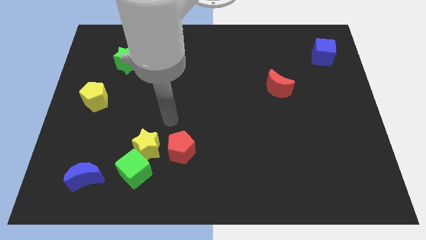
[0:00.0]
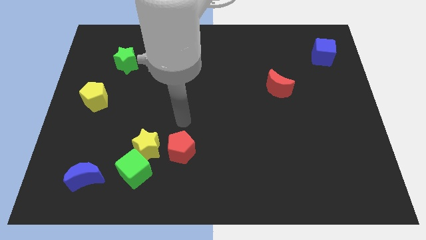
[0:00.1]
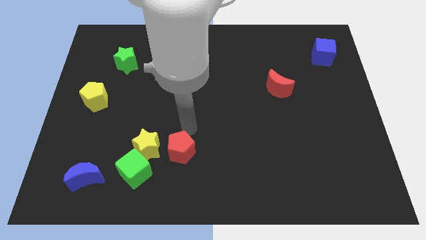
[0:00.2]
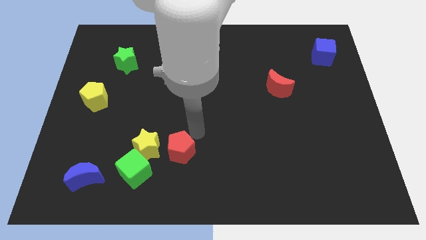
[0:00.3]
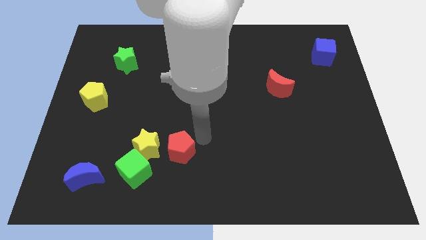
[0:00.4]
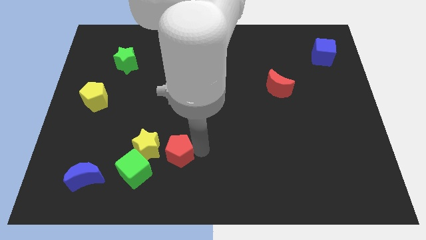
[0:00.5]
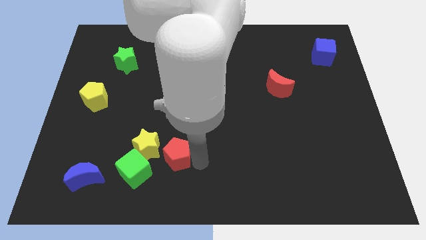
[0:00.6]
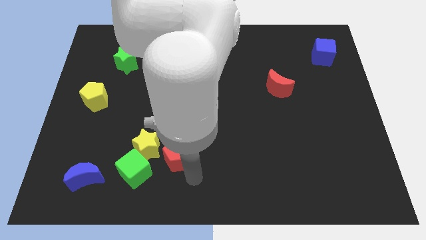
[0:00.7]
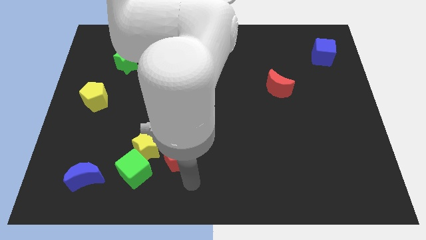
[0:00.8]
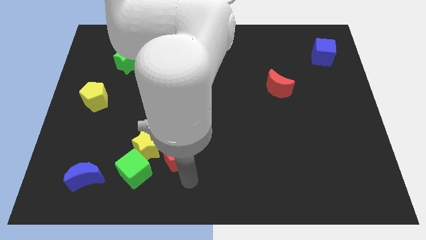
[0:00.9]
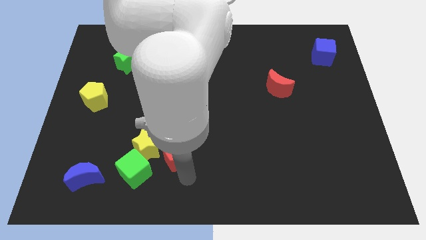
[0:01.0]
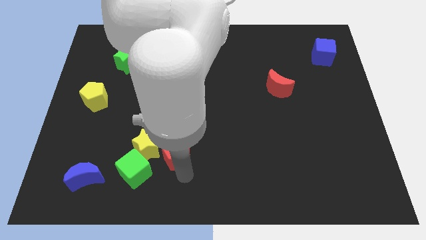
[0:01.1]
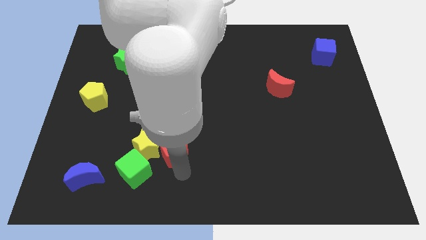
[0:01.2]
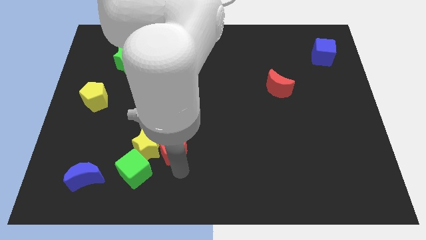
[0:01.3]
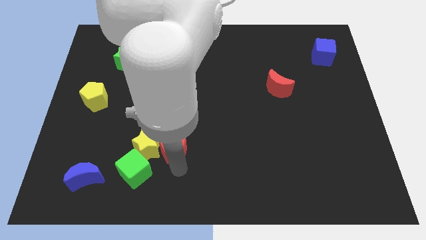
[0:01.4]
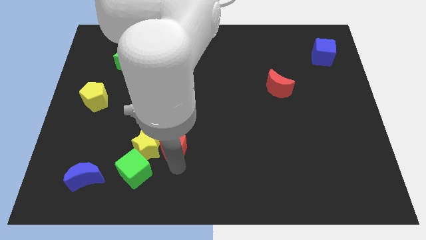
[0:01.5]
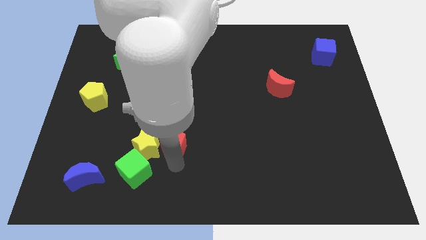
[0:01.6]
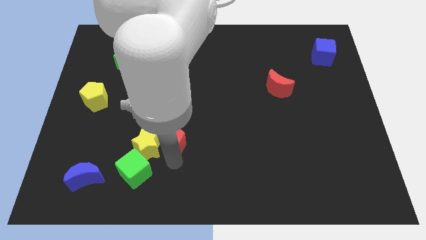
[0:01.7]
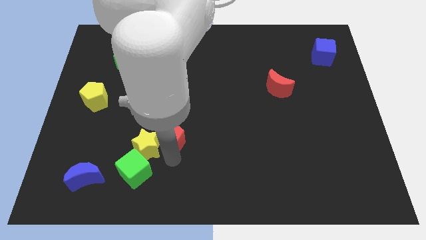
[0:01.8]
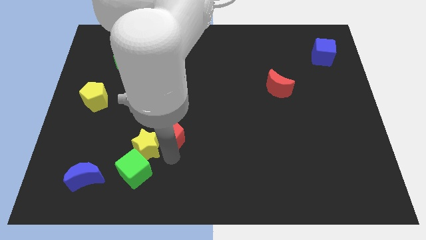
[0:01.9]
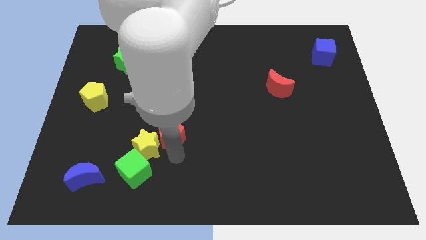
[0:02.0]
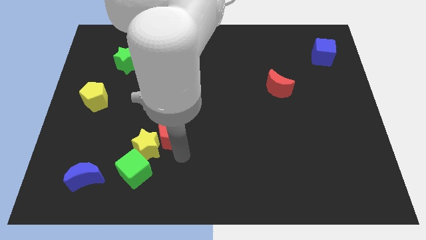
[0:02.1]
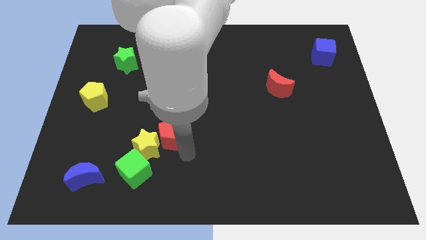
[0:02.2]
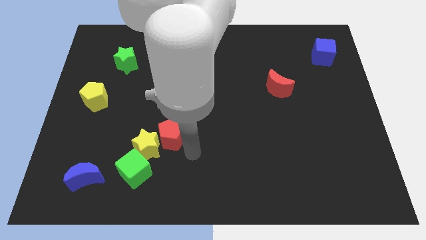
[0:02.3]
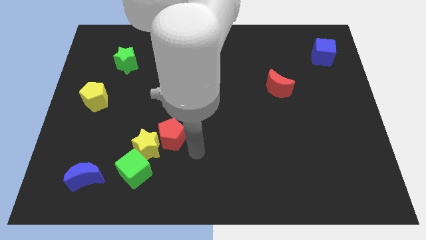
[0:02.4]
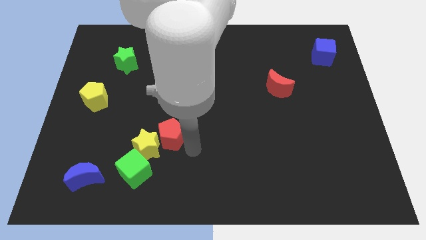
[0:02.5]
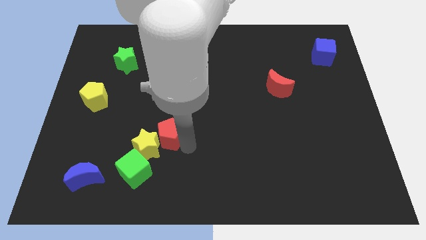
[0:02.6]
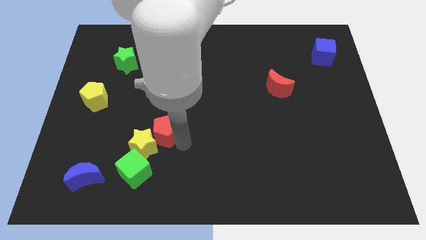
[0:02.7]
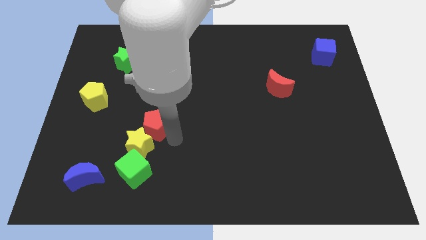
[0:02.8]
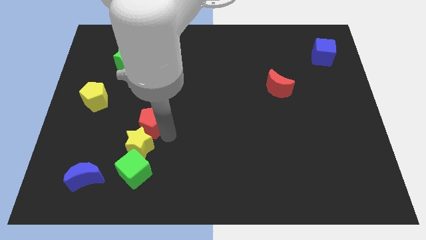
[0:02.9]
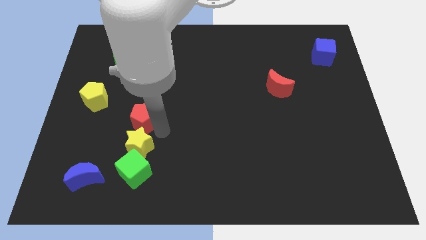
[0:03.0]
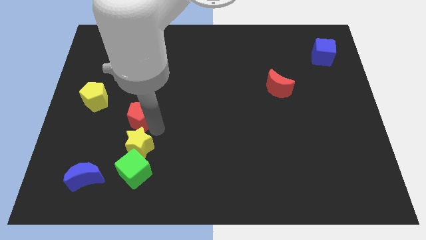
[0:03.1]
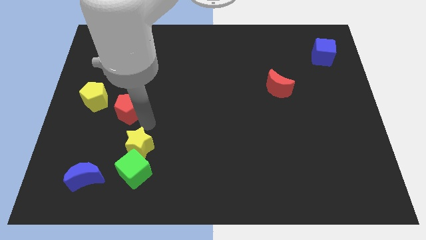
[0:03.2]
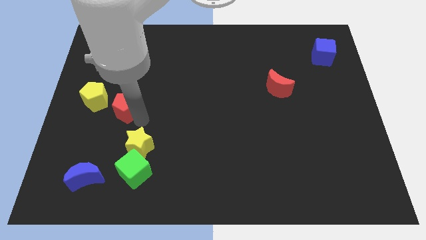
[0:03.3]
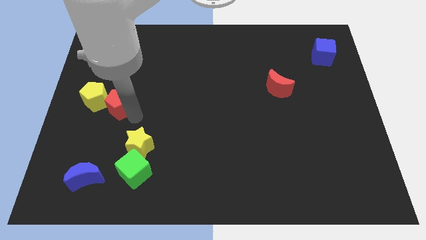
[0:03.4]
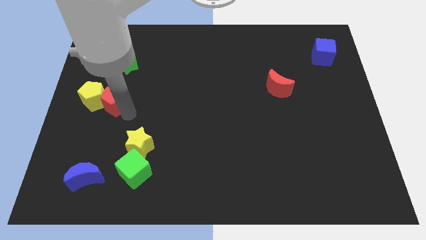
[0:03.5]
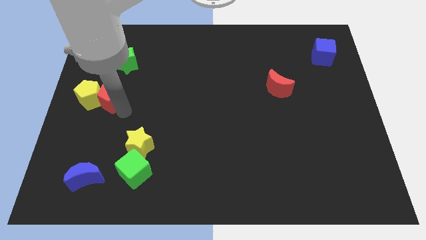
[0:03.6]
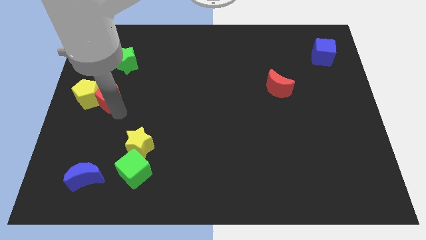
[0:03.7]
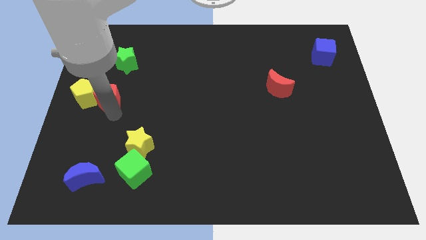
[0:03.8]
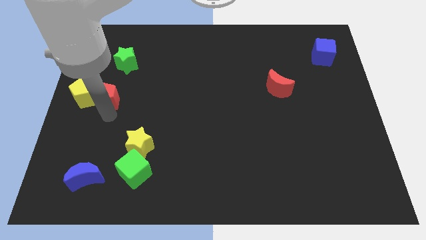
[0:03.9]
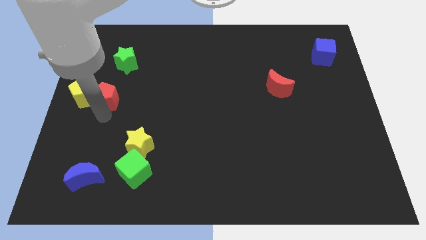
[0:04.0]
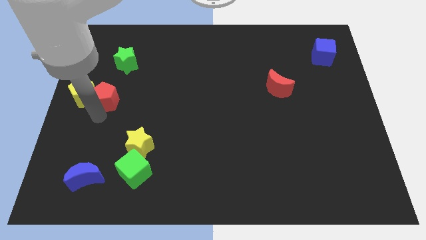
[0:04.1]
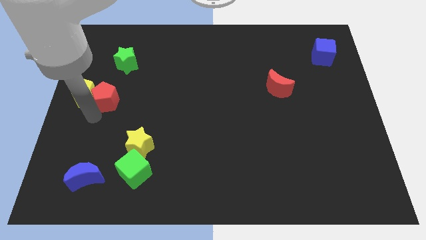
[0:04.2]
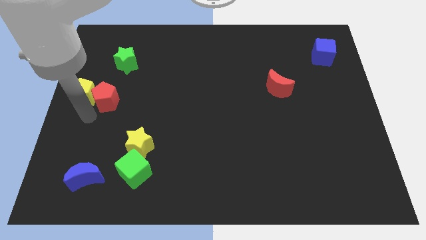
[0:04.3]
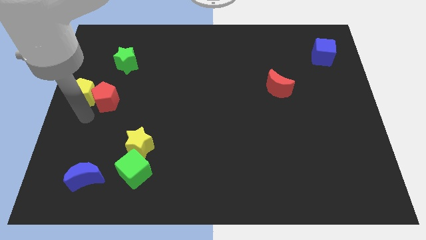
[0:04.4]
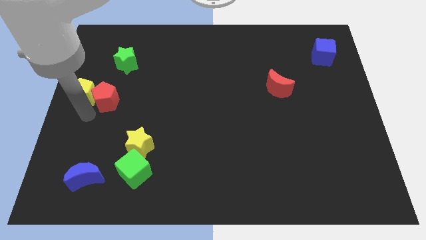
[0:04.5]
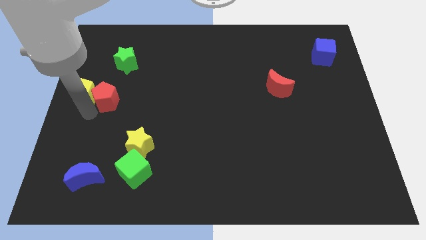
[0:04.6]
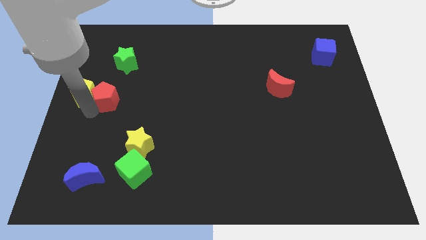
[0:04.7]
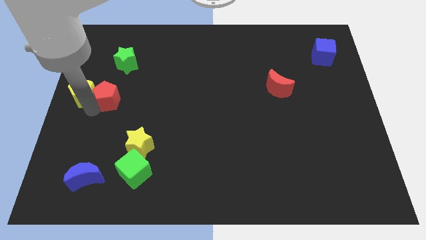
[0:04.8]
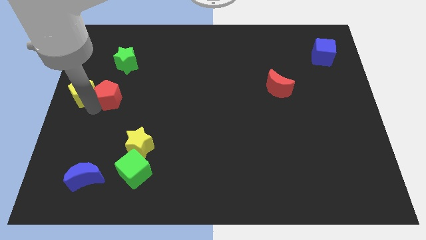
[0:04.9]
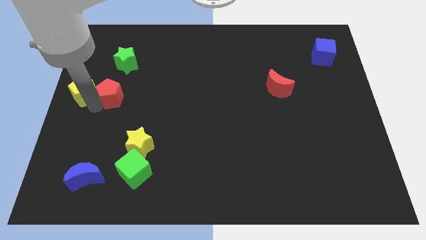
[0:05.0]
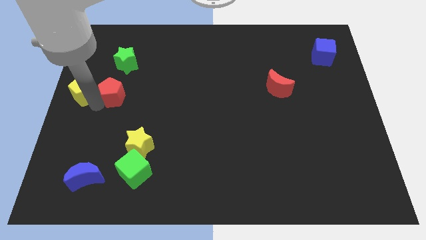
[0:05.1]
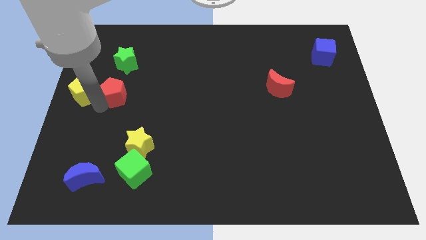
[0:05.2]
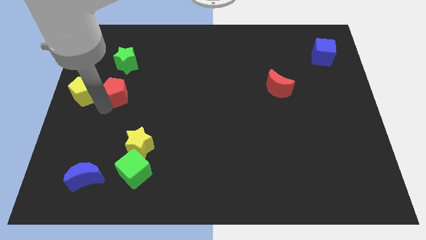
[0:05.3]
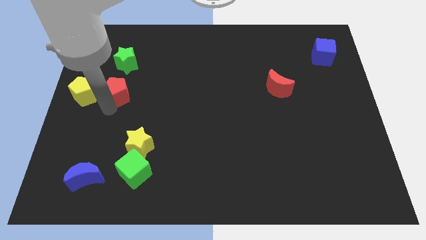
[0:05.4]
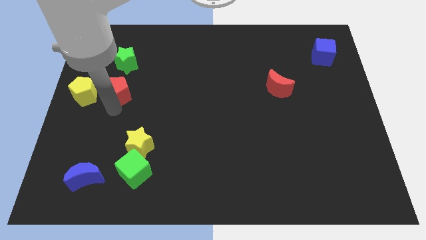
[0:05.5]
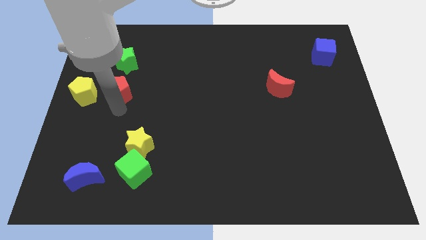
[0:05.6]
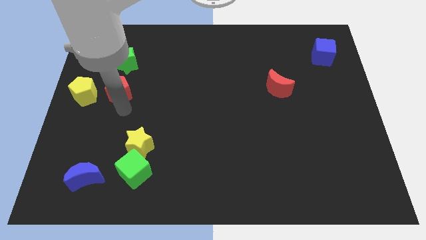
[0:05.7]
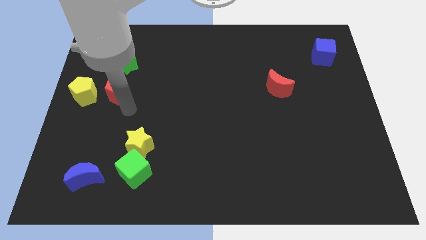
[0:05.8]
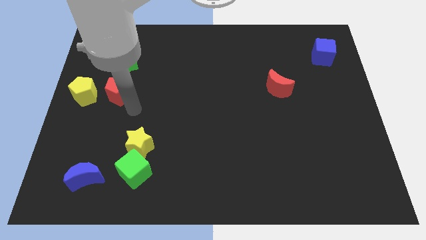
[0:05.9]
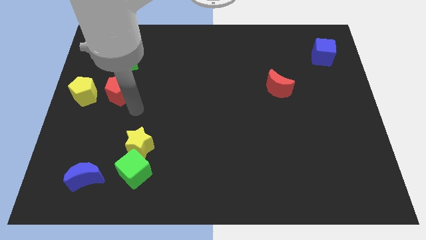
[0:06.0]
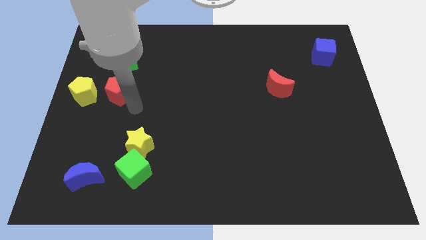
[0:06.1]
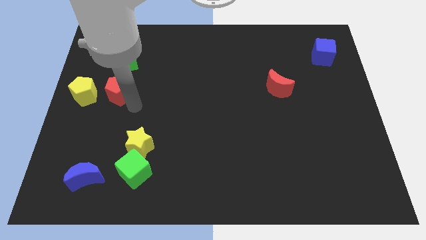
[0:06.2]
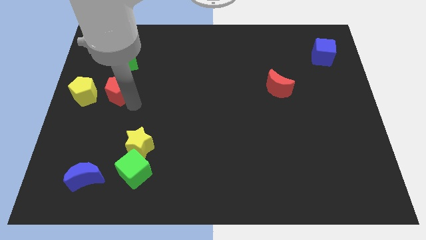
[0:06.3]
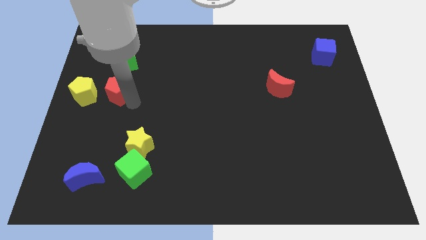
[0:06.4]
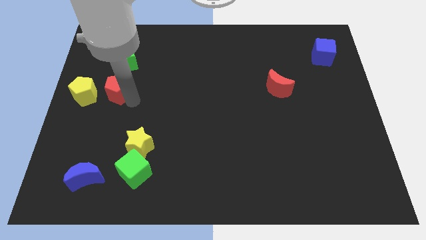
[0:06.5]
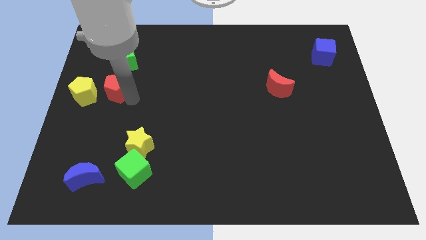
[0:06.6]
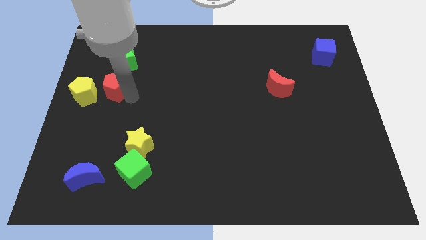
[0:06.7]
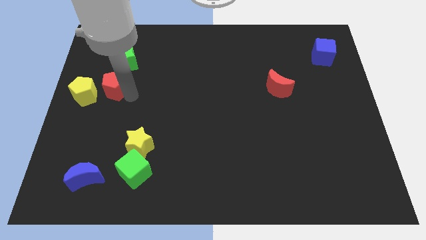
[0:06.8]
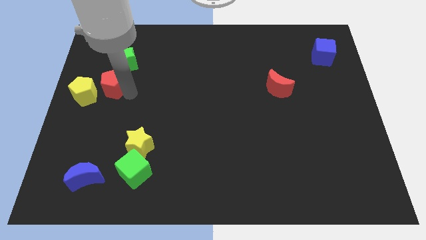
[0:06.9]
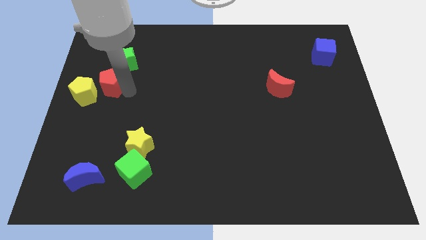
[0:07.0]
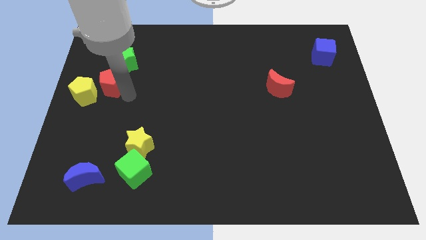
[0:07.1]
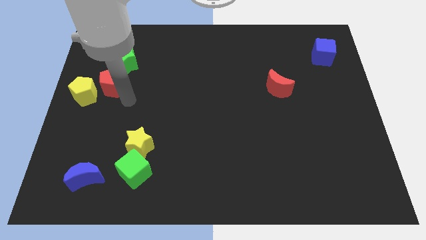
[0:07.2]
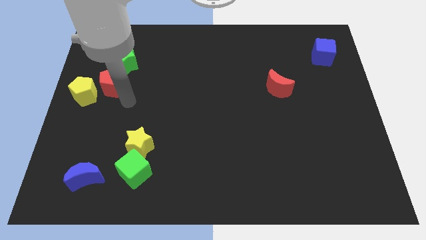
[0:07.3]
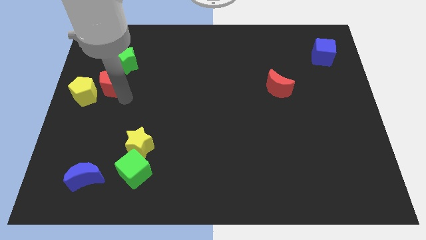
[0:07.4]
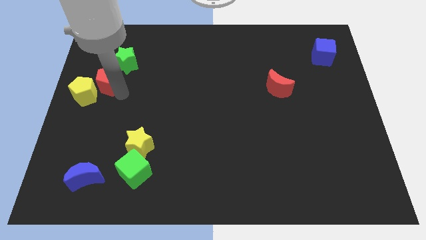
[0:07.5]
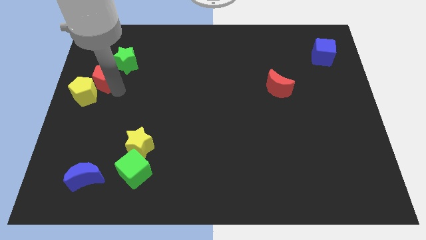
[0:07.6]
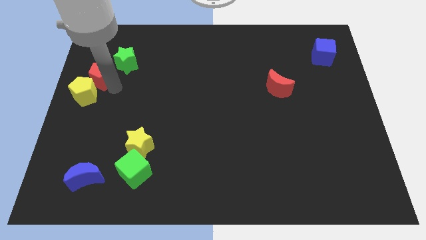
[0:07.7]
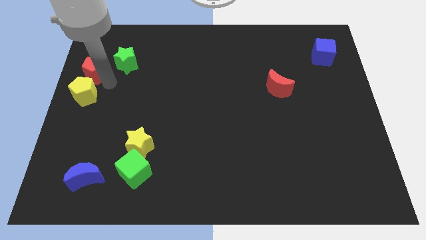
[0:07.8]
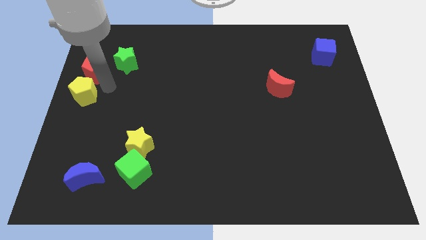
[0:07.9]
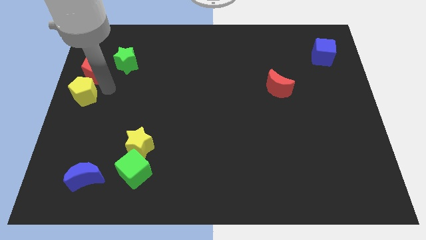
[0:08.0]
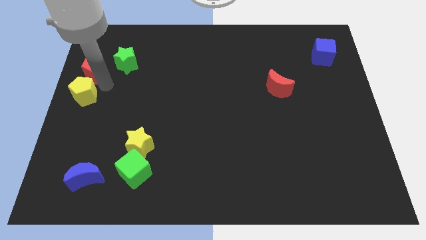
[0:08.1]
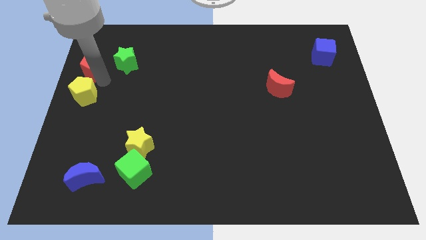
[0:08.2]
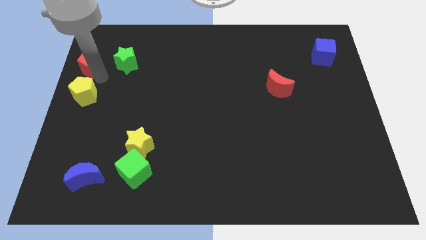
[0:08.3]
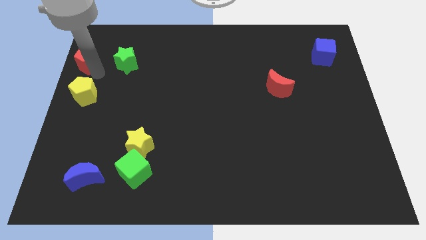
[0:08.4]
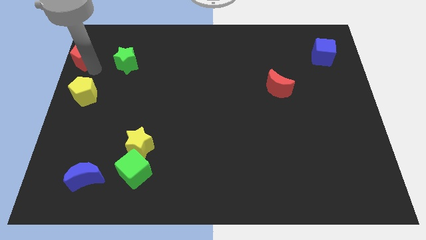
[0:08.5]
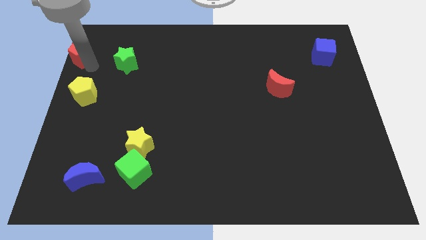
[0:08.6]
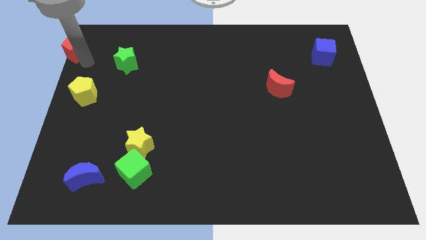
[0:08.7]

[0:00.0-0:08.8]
move the red pentagon to the top left corner
